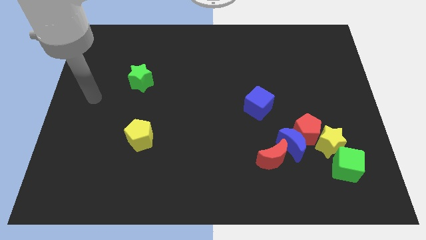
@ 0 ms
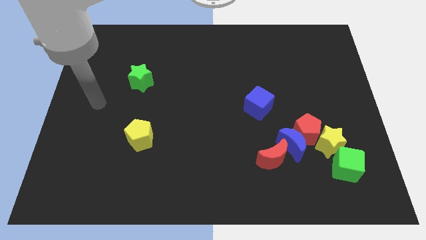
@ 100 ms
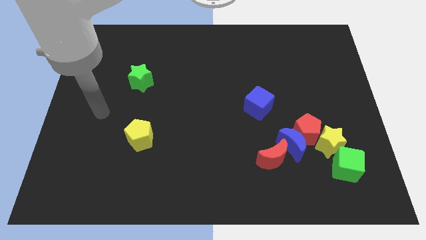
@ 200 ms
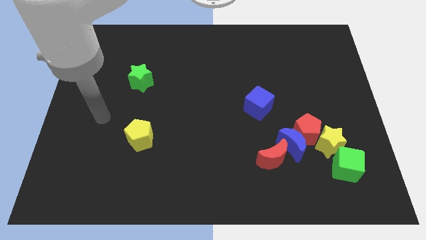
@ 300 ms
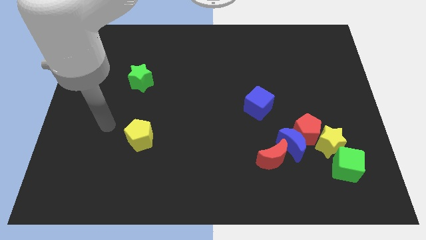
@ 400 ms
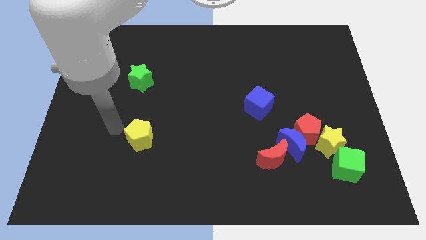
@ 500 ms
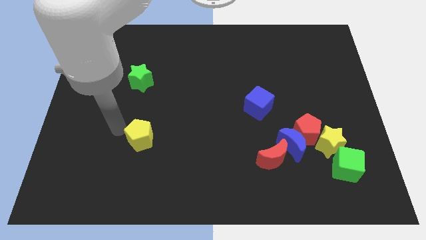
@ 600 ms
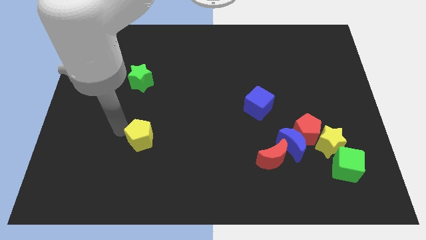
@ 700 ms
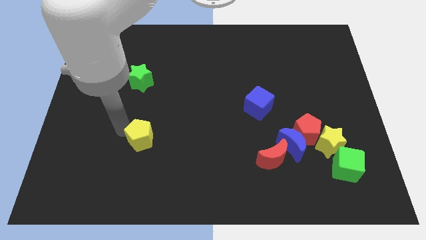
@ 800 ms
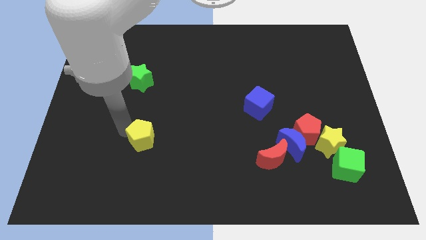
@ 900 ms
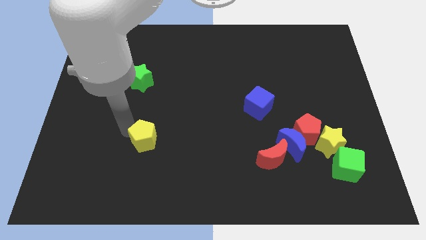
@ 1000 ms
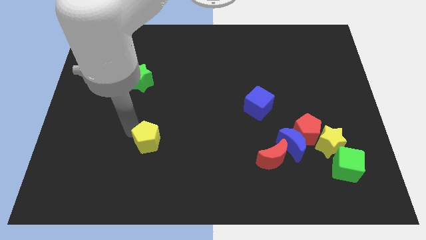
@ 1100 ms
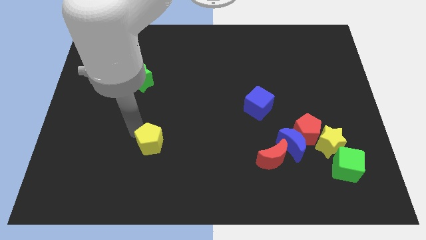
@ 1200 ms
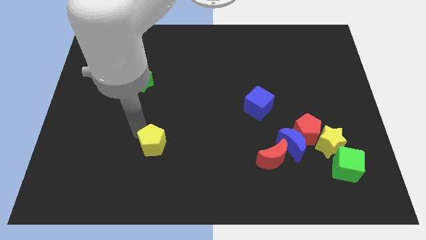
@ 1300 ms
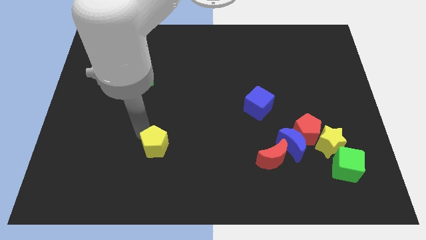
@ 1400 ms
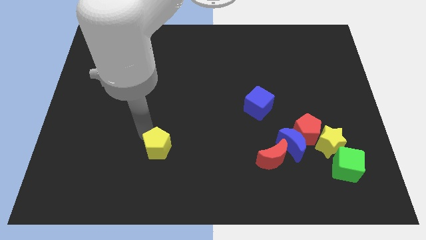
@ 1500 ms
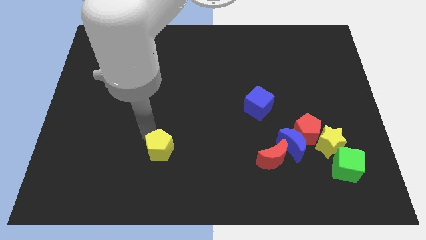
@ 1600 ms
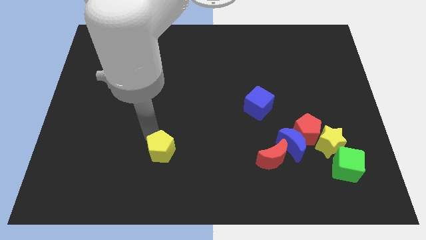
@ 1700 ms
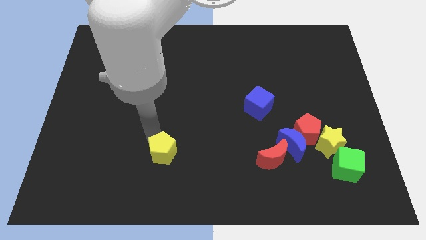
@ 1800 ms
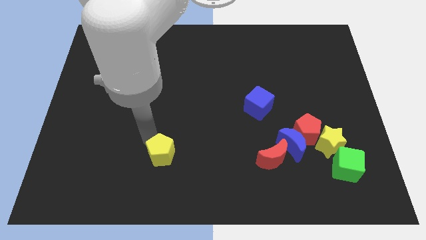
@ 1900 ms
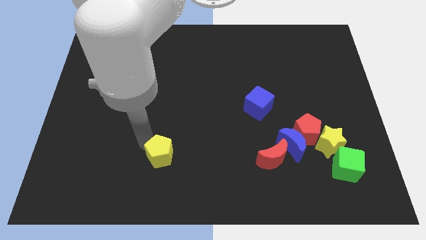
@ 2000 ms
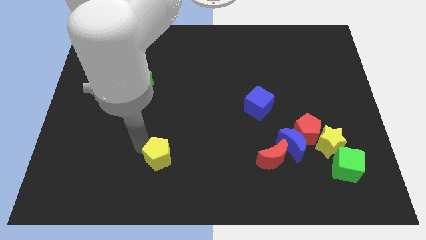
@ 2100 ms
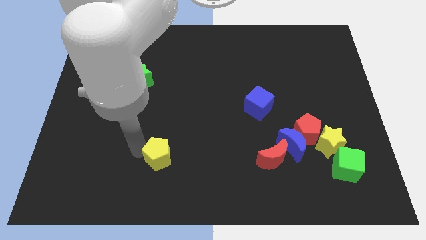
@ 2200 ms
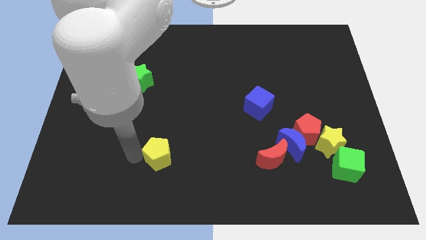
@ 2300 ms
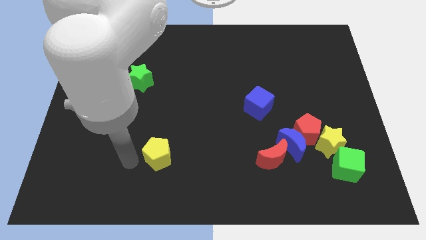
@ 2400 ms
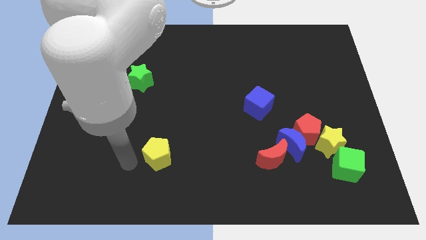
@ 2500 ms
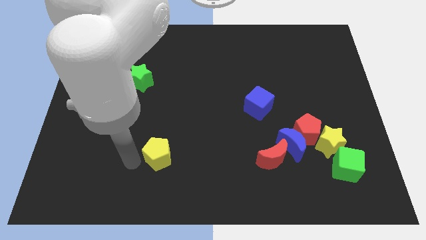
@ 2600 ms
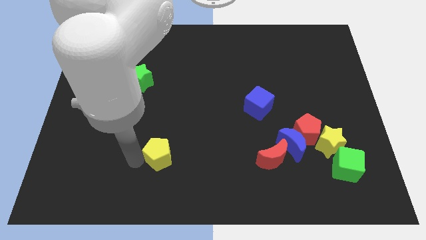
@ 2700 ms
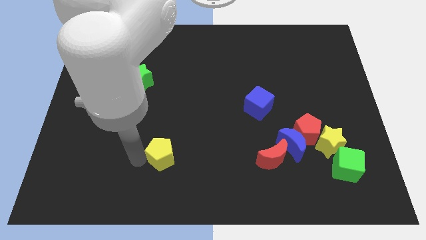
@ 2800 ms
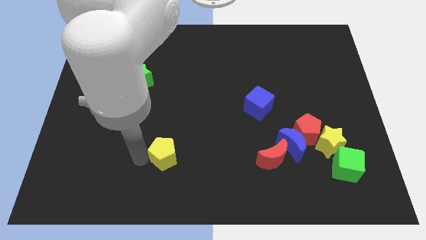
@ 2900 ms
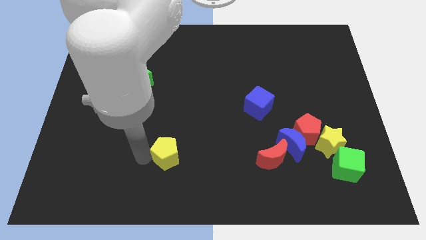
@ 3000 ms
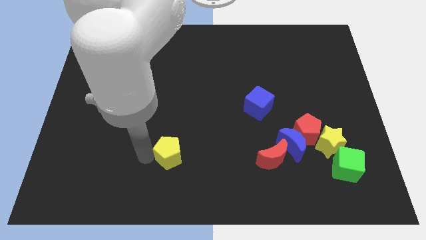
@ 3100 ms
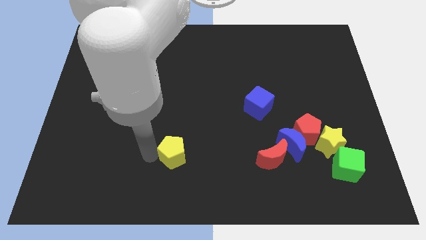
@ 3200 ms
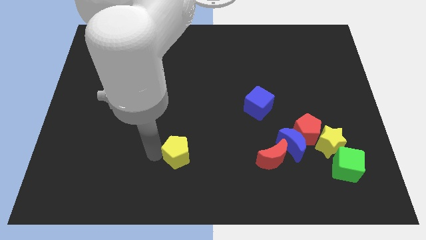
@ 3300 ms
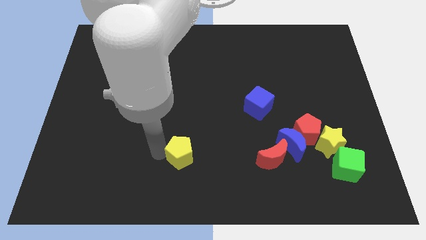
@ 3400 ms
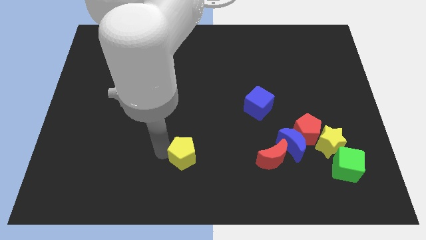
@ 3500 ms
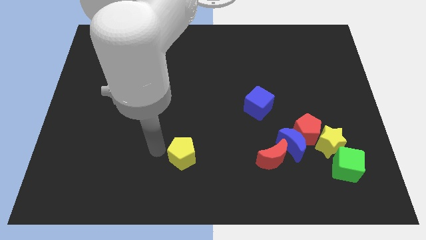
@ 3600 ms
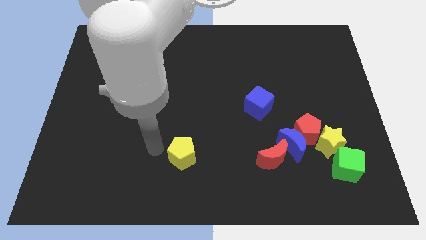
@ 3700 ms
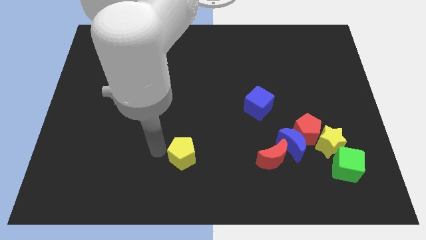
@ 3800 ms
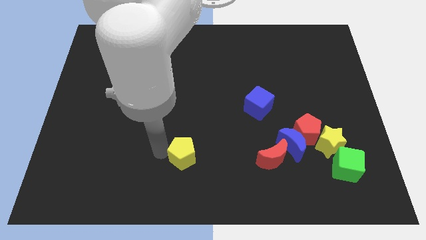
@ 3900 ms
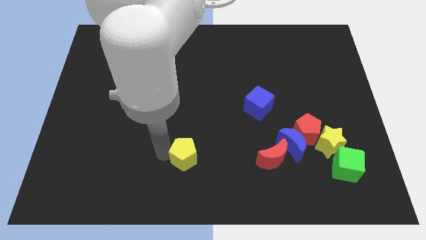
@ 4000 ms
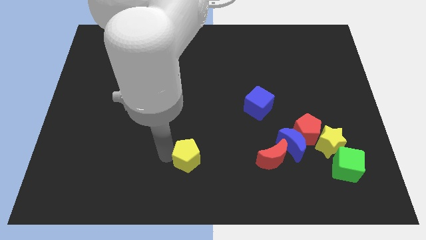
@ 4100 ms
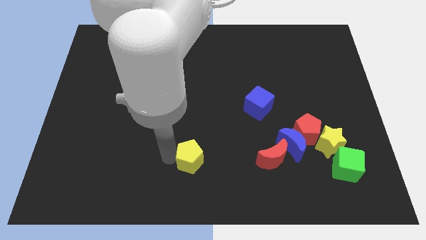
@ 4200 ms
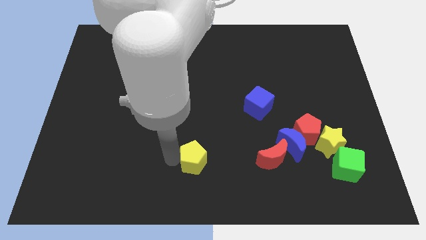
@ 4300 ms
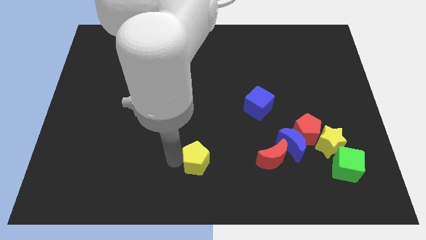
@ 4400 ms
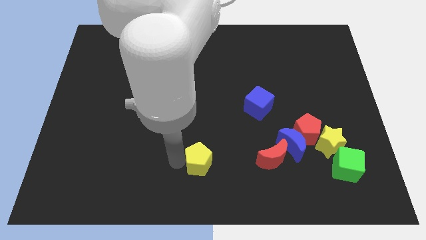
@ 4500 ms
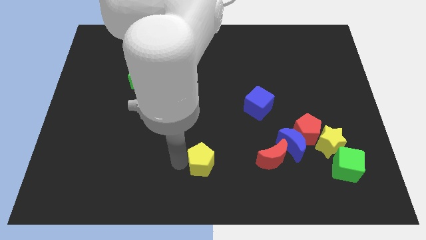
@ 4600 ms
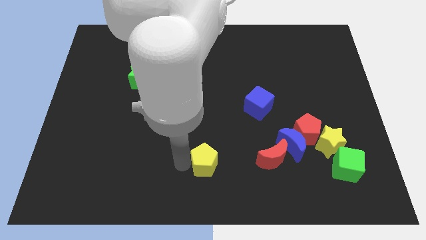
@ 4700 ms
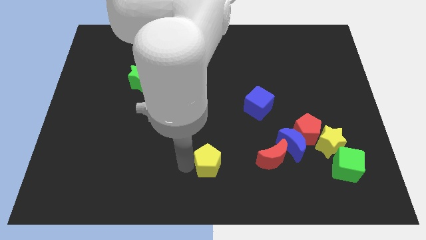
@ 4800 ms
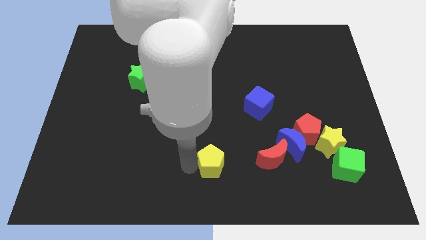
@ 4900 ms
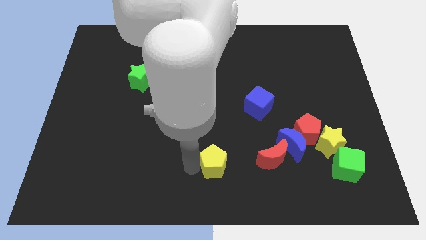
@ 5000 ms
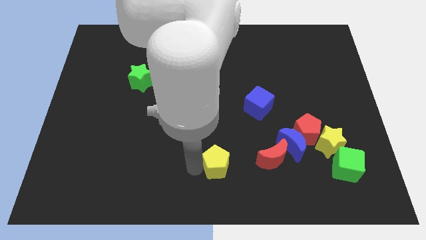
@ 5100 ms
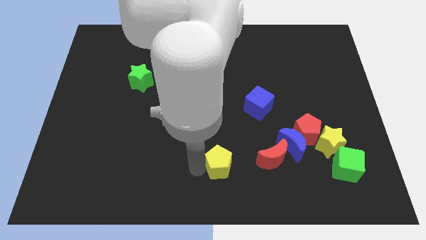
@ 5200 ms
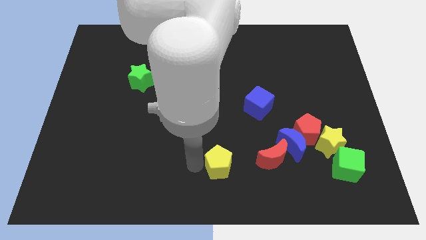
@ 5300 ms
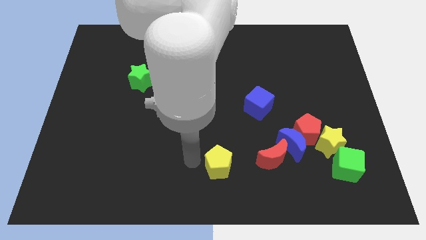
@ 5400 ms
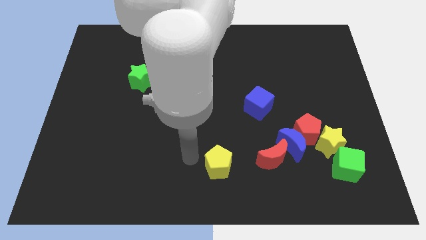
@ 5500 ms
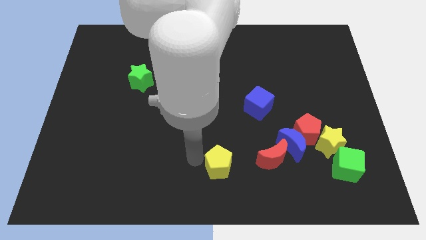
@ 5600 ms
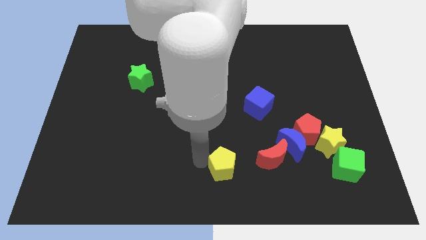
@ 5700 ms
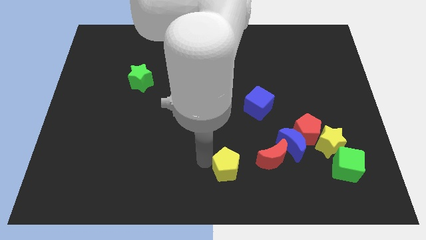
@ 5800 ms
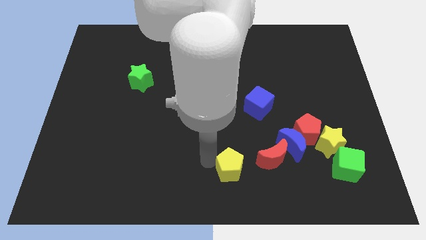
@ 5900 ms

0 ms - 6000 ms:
move the yellow pentagon to the bottom left of the red moon

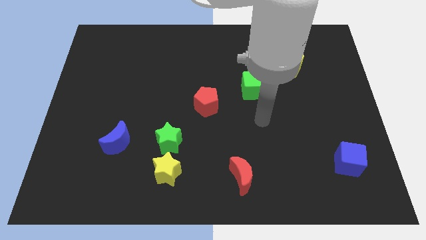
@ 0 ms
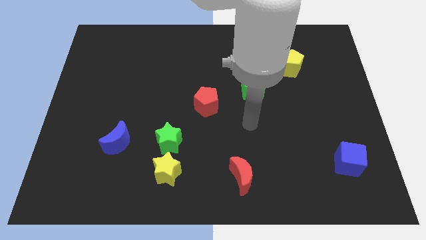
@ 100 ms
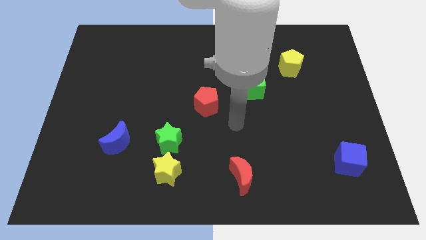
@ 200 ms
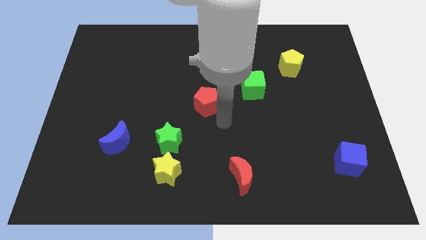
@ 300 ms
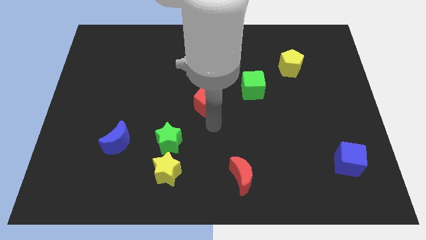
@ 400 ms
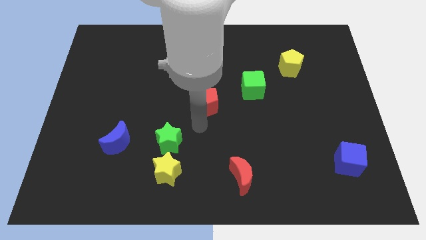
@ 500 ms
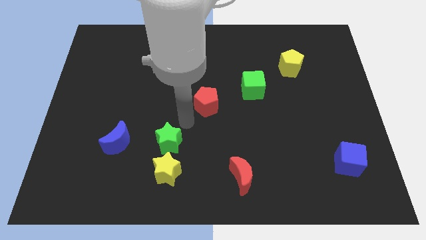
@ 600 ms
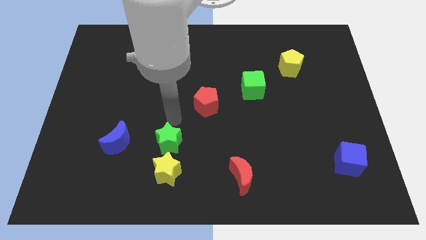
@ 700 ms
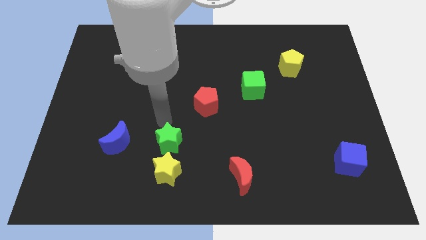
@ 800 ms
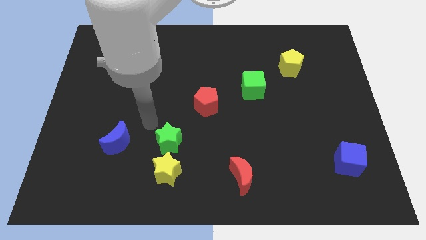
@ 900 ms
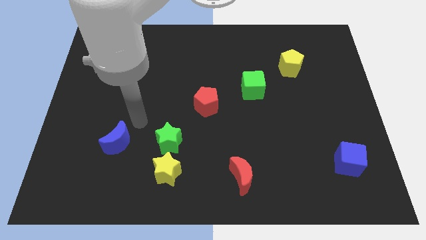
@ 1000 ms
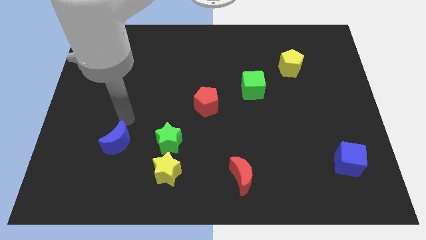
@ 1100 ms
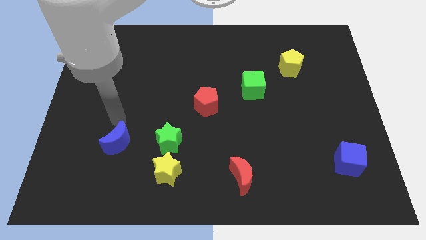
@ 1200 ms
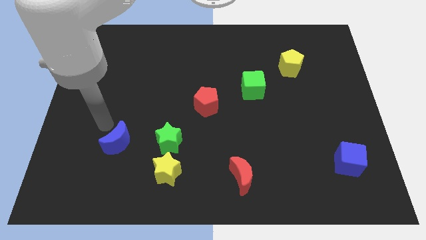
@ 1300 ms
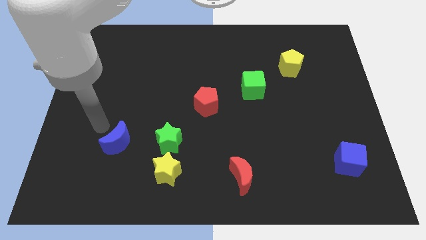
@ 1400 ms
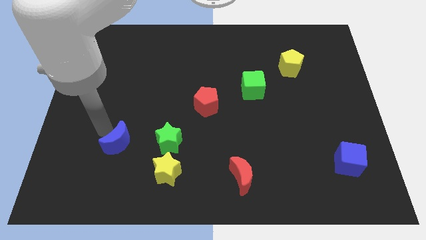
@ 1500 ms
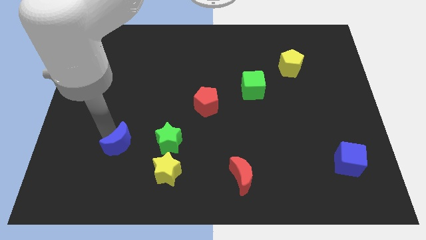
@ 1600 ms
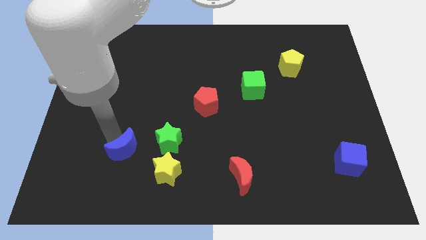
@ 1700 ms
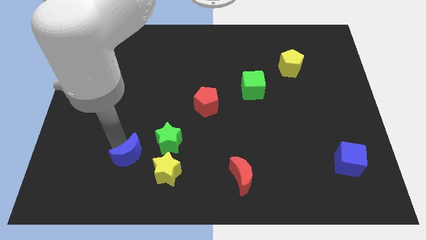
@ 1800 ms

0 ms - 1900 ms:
move the blue moon to the bottom left side of the green star
